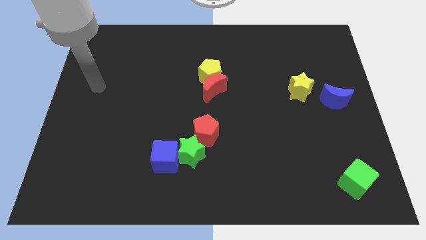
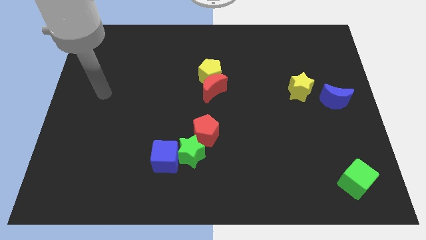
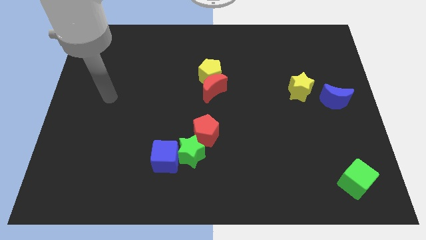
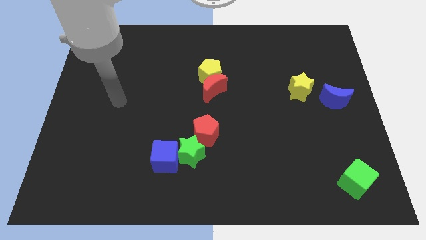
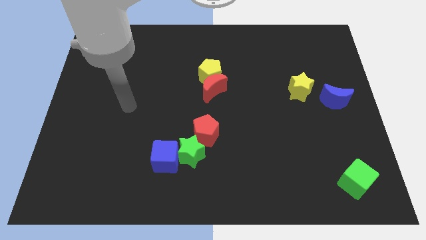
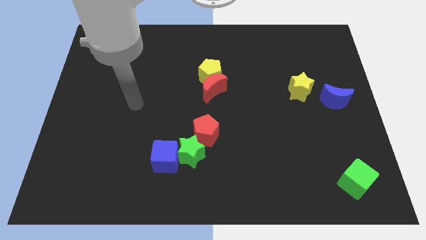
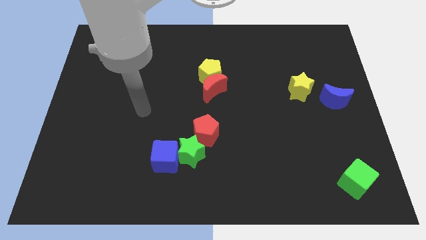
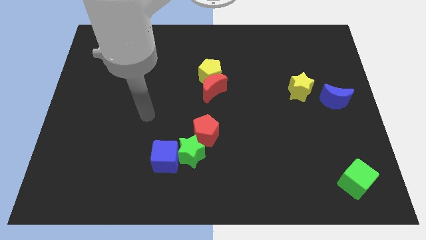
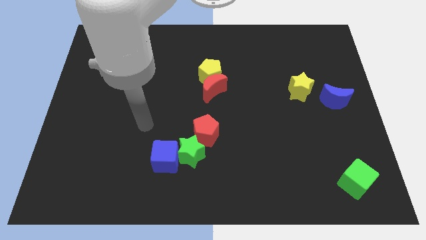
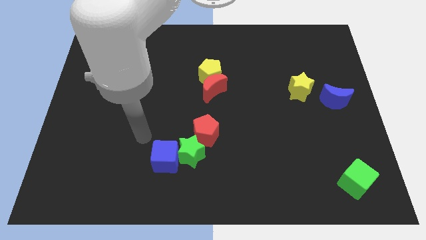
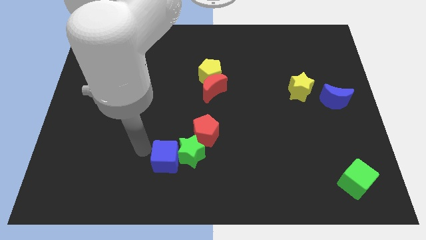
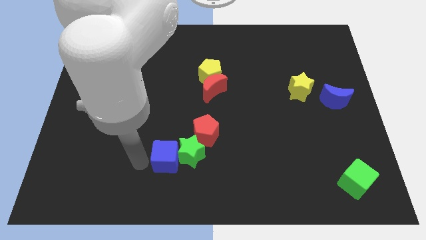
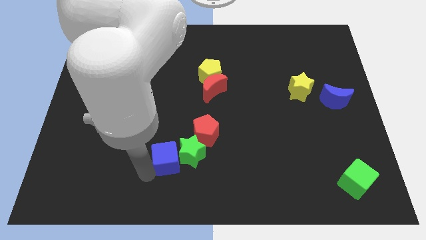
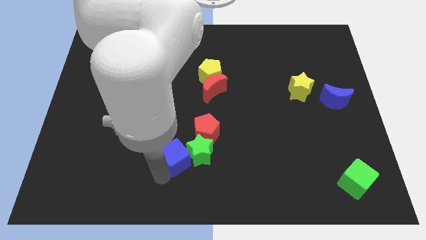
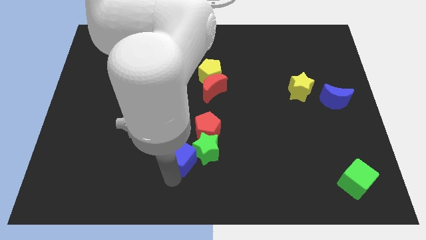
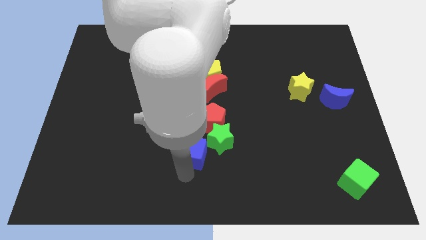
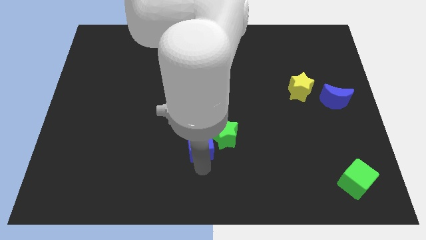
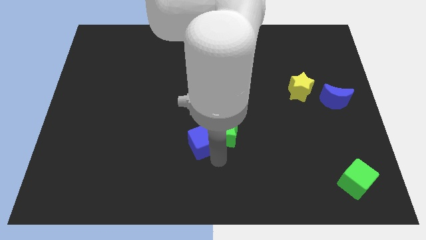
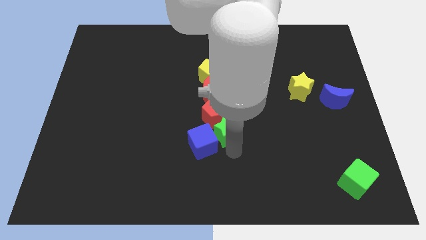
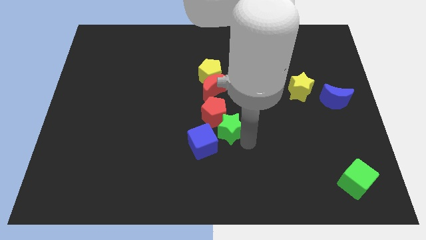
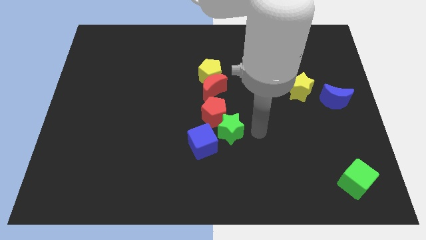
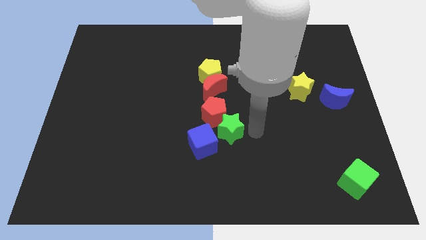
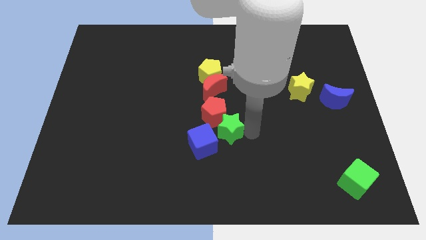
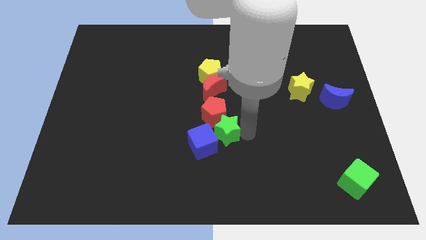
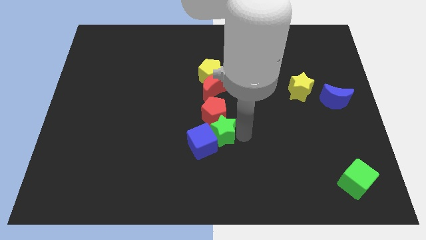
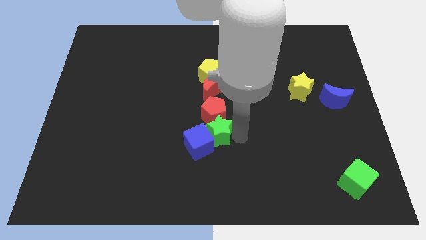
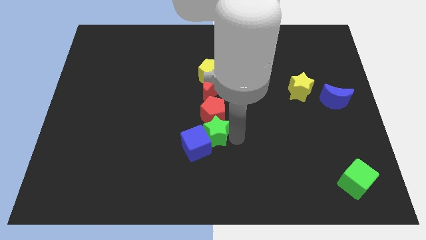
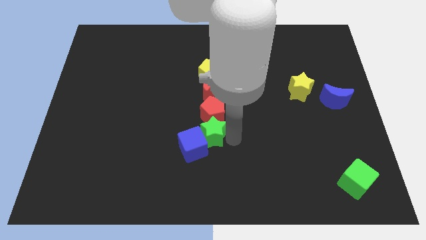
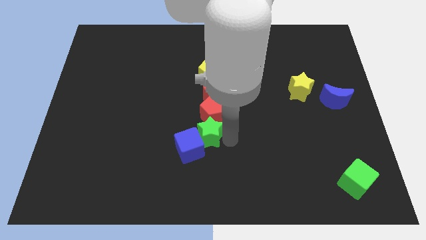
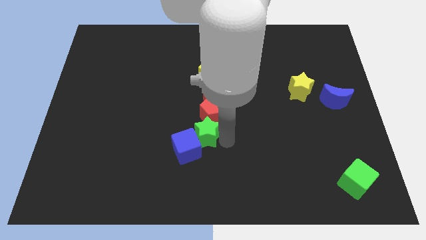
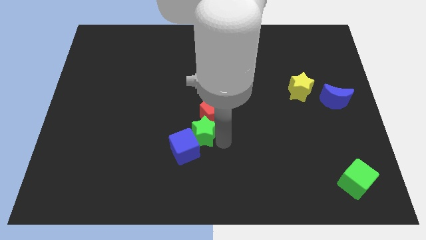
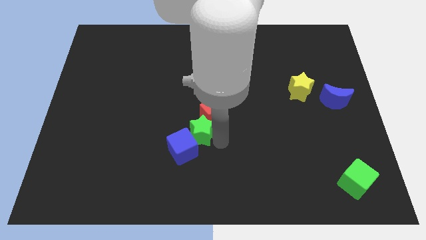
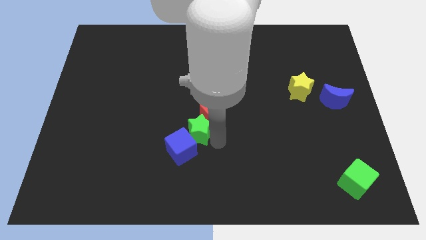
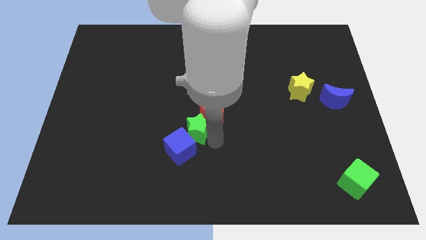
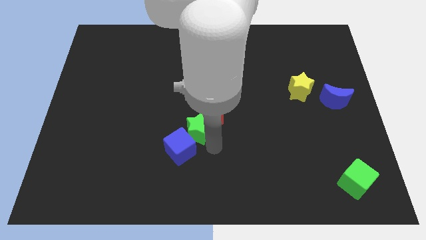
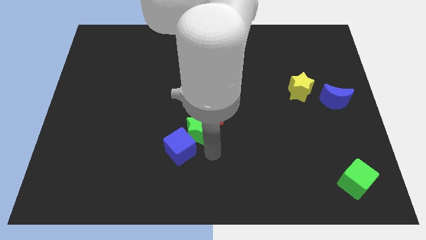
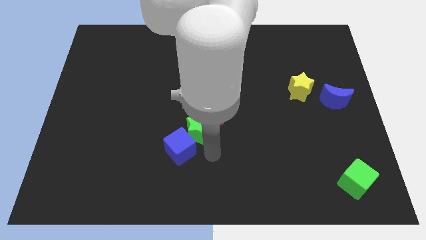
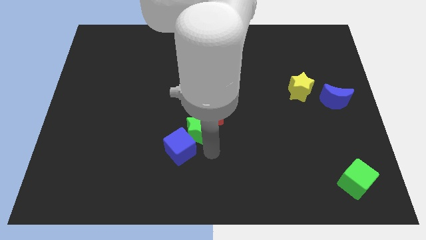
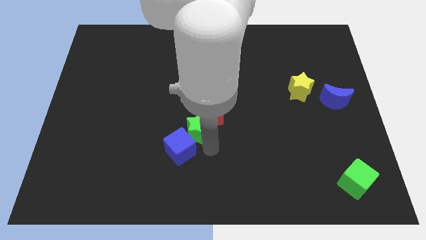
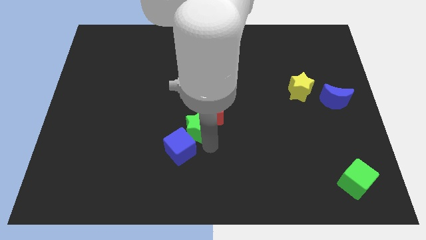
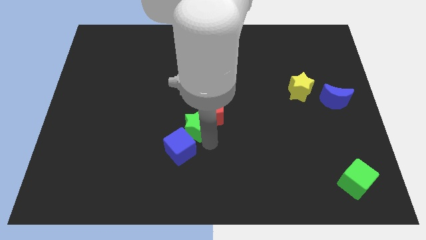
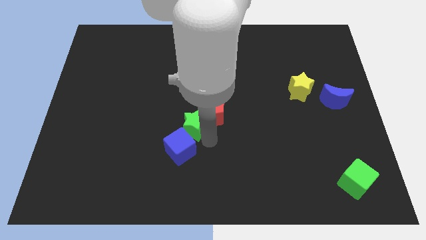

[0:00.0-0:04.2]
slightly slide the green star upwards

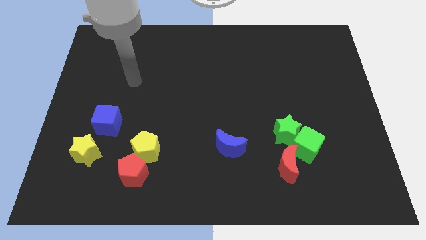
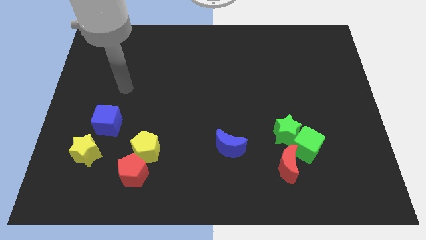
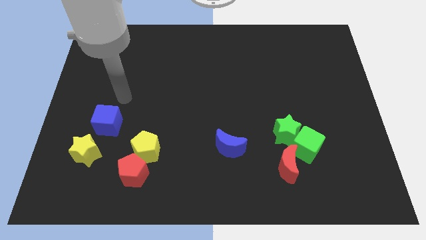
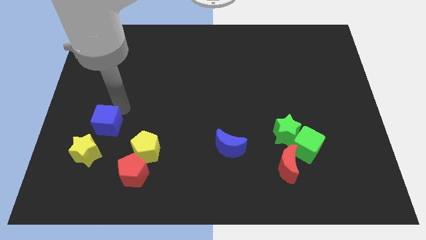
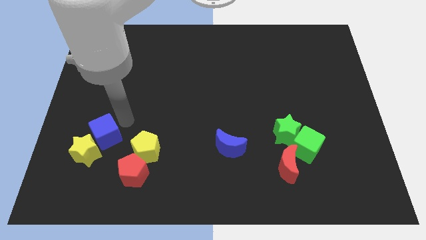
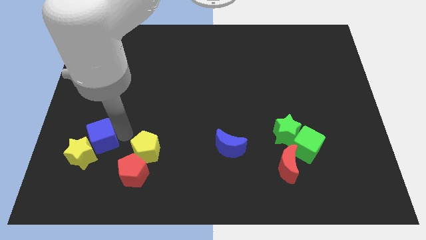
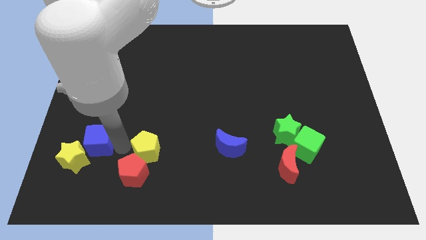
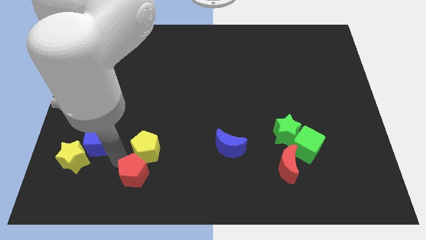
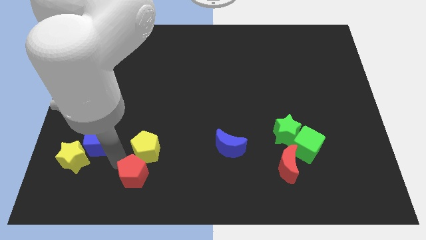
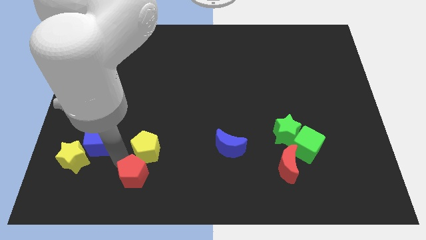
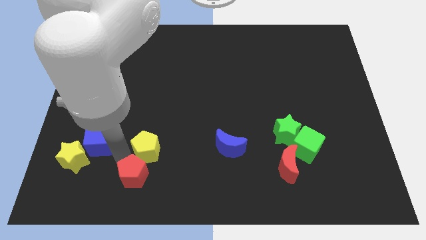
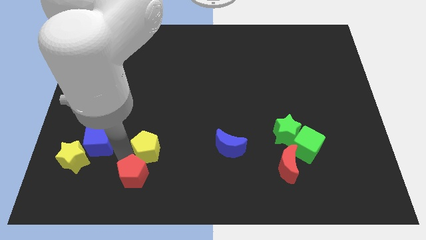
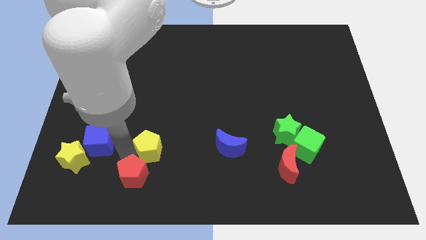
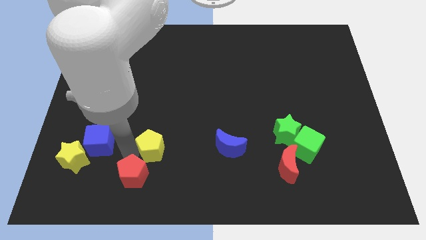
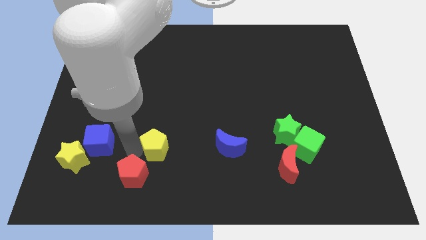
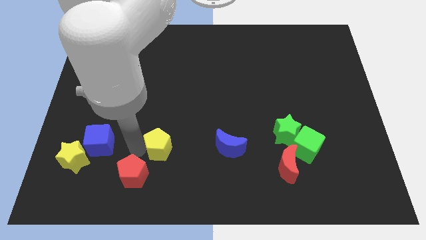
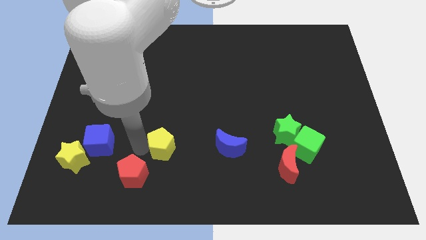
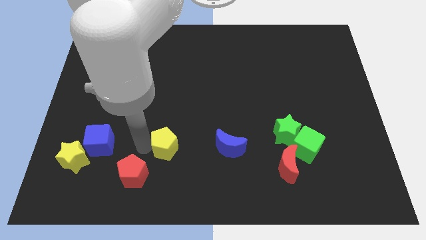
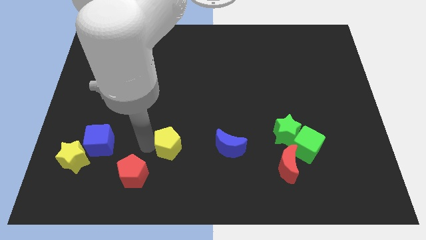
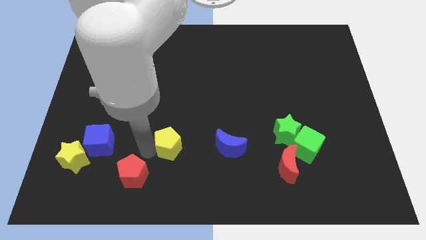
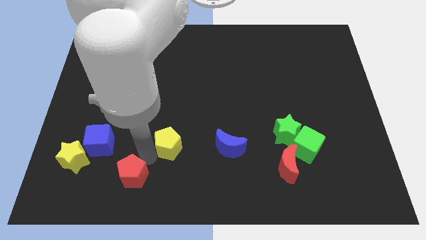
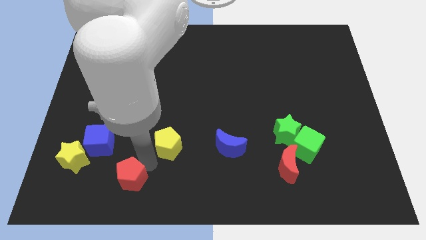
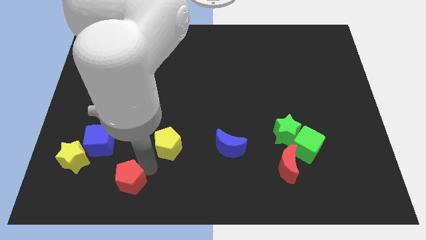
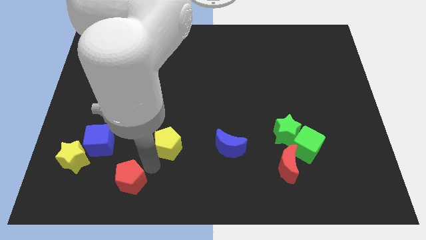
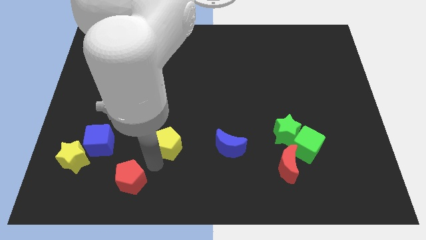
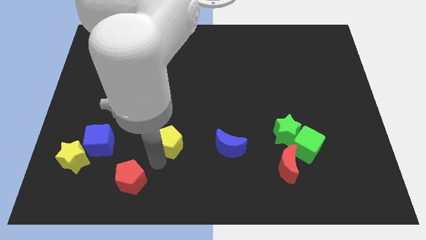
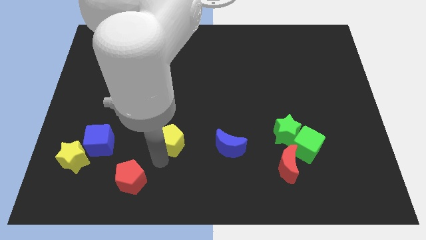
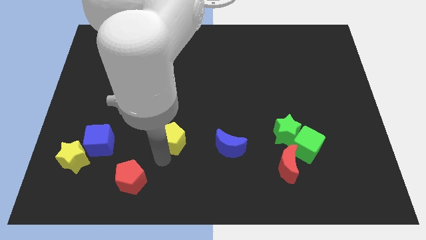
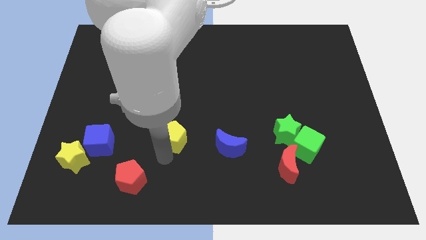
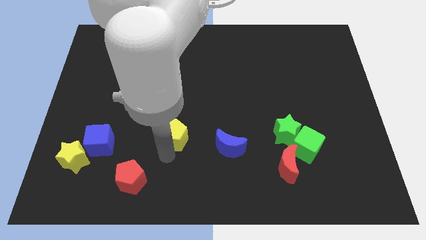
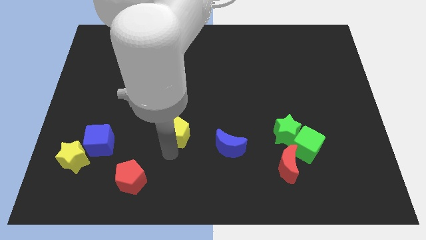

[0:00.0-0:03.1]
slightly move the yellow pentagon up and to the right diagonally

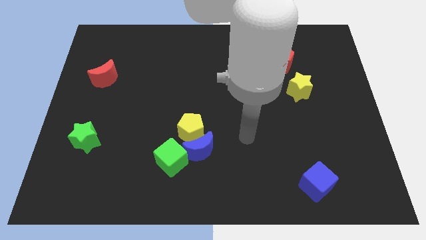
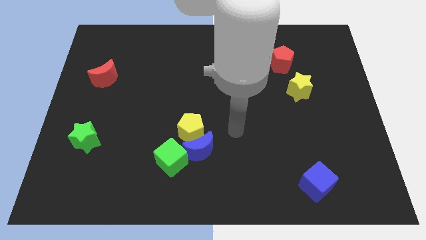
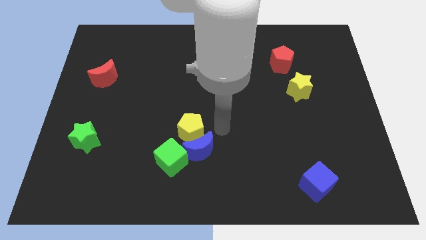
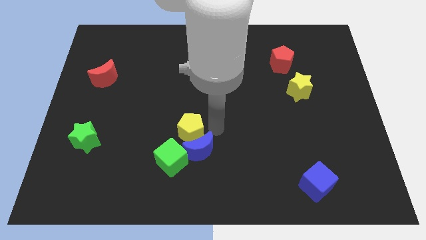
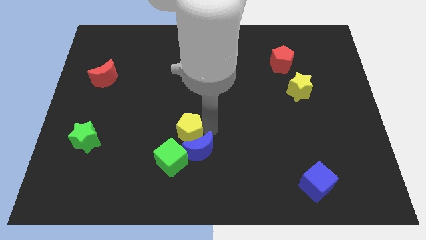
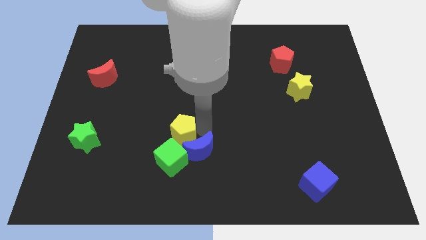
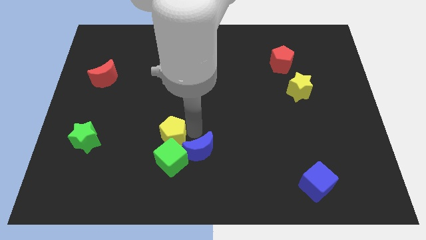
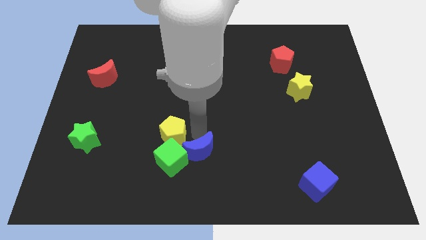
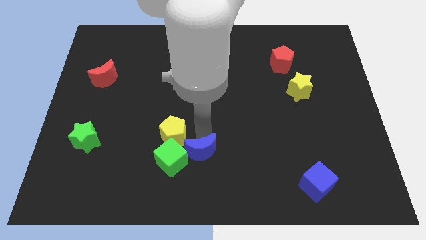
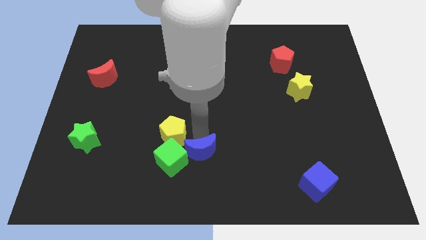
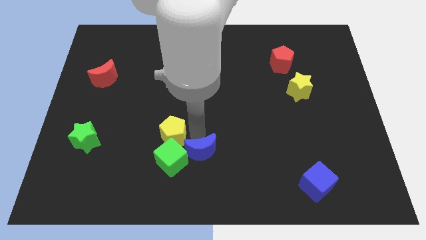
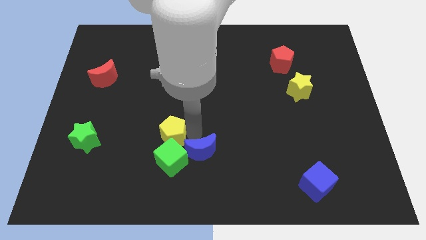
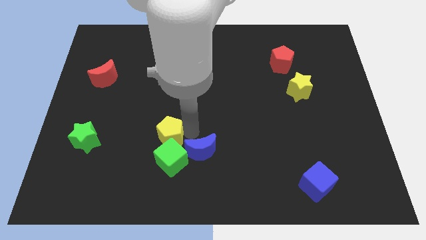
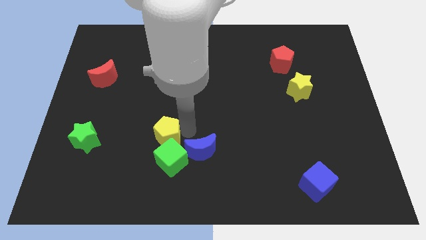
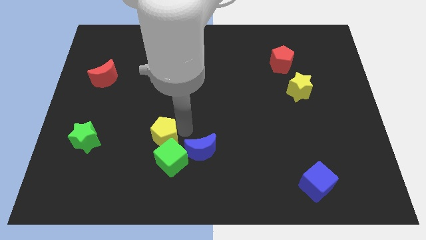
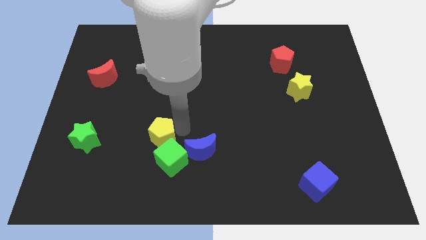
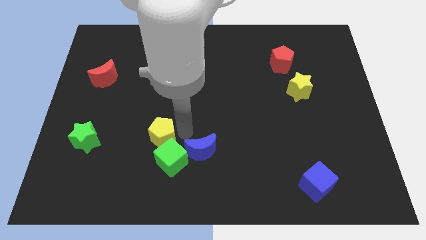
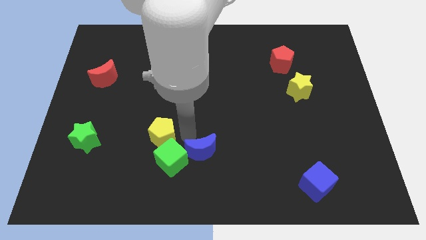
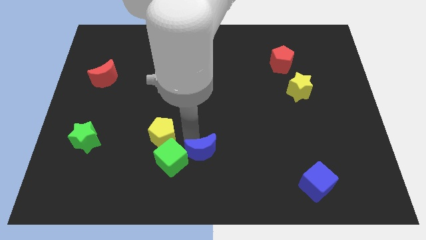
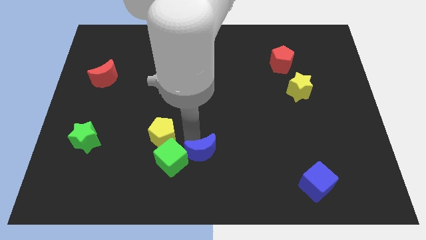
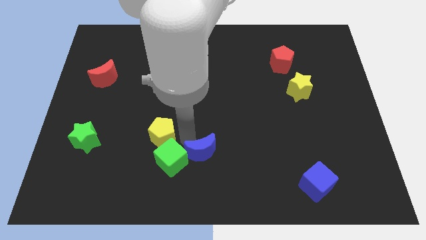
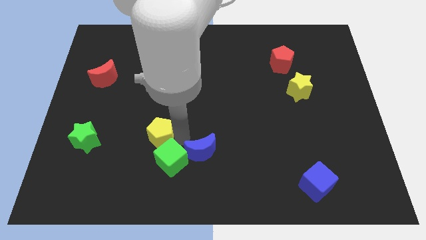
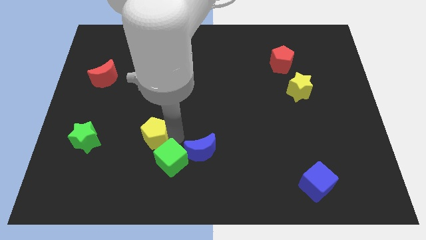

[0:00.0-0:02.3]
move the yellow pentagon left slightly
